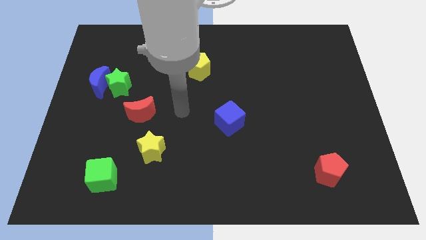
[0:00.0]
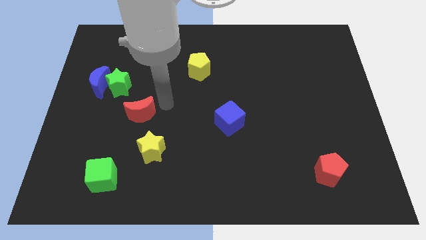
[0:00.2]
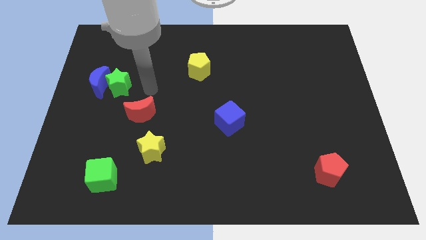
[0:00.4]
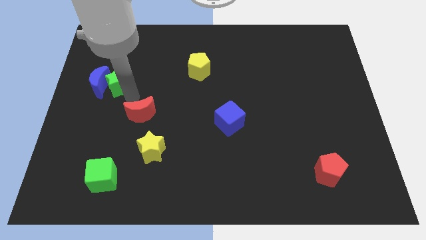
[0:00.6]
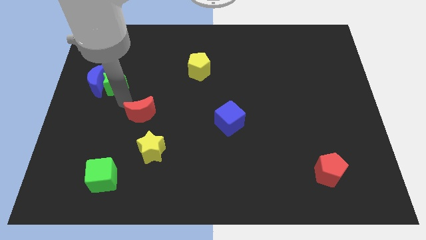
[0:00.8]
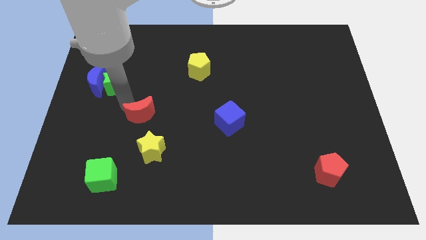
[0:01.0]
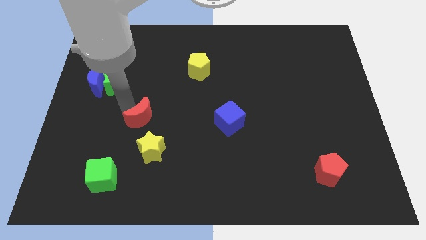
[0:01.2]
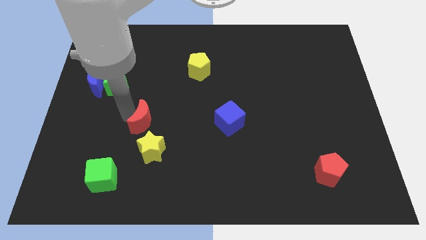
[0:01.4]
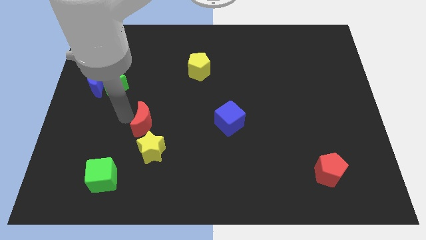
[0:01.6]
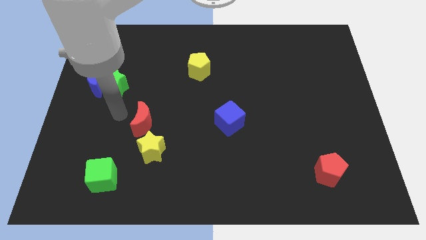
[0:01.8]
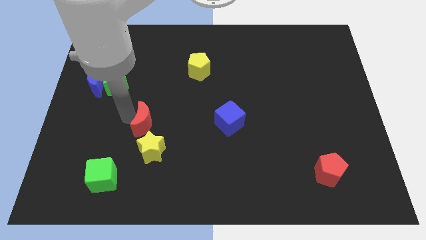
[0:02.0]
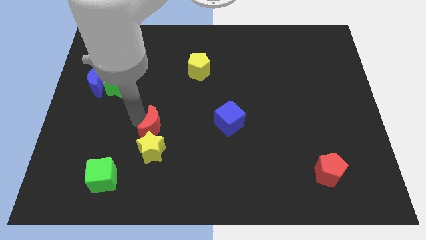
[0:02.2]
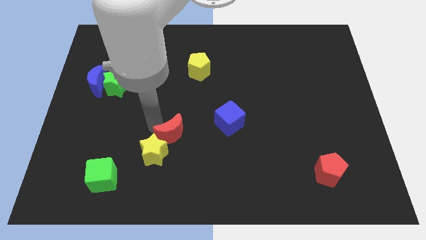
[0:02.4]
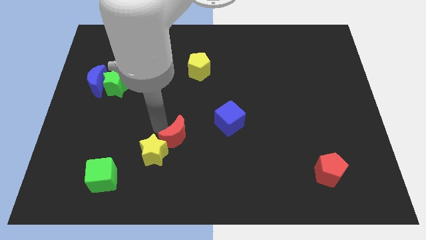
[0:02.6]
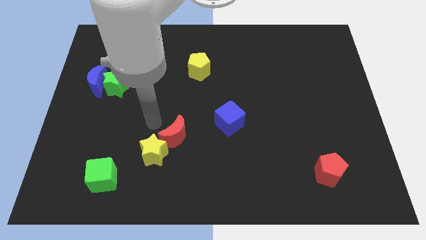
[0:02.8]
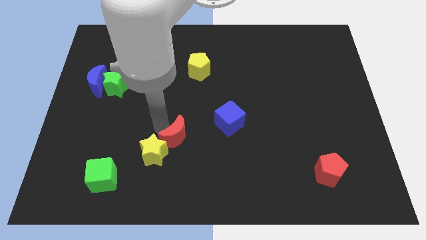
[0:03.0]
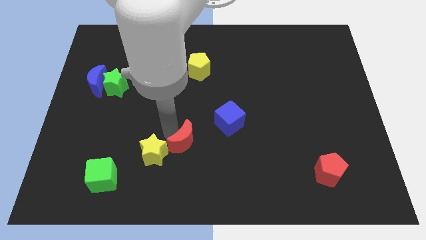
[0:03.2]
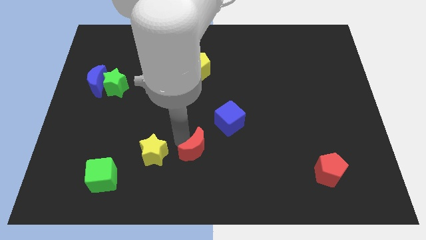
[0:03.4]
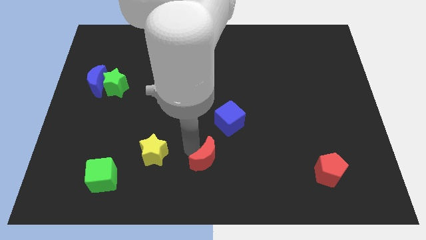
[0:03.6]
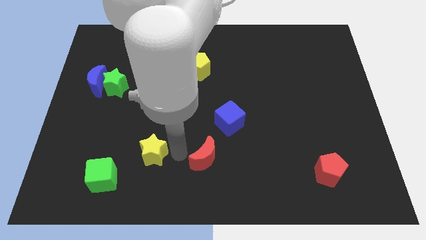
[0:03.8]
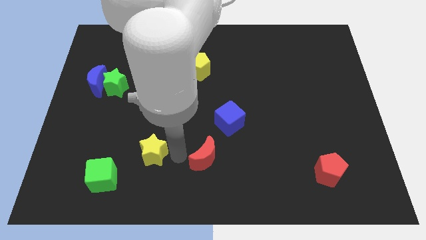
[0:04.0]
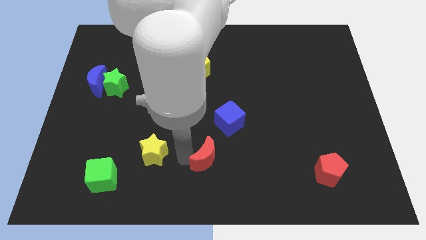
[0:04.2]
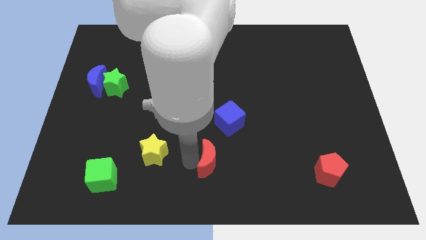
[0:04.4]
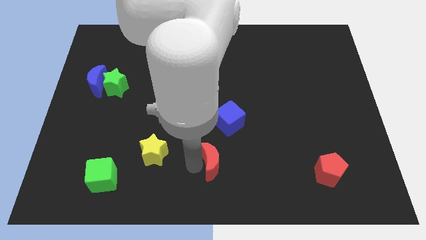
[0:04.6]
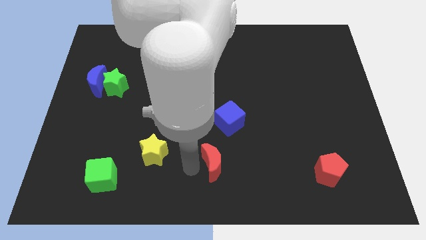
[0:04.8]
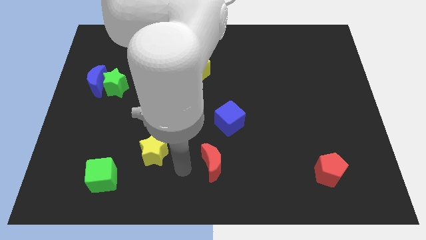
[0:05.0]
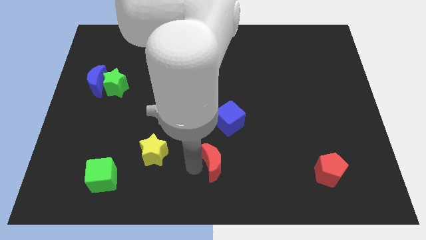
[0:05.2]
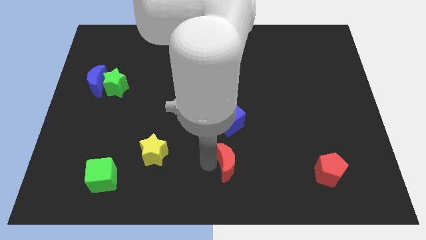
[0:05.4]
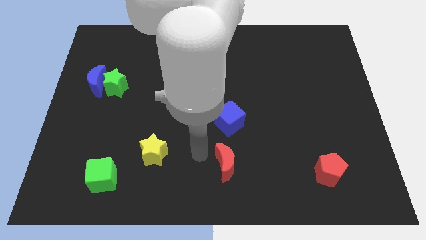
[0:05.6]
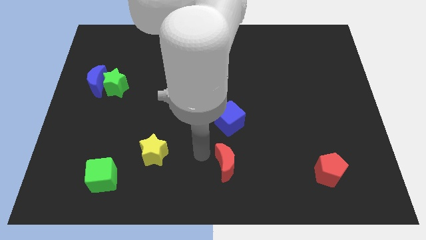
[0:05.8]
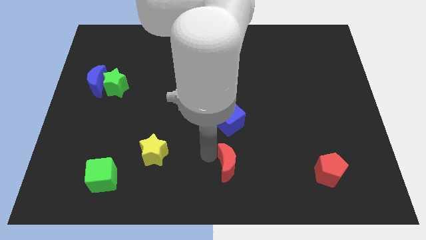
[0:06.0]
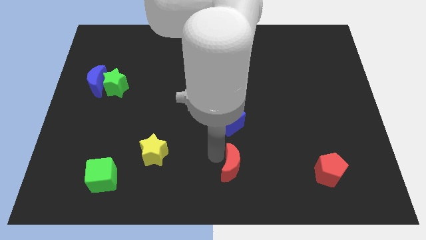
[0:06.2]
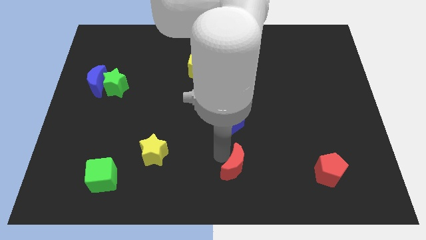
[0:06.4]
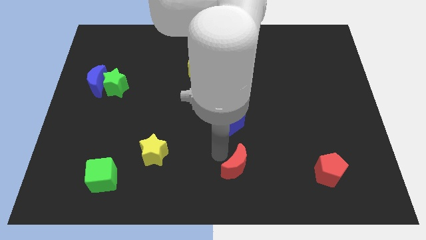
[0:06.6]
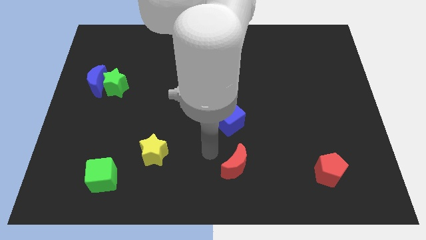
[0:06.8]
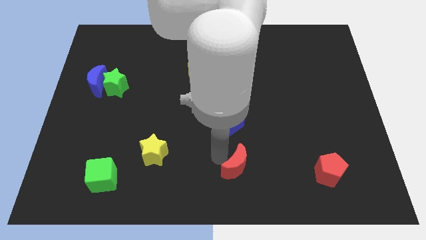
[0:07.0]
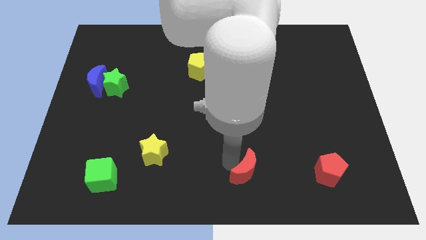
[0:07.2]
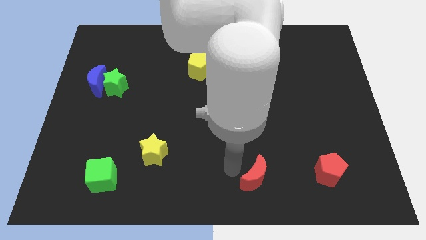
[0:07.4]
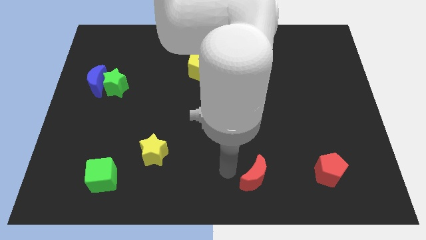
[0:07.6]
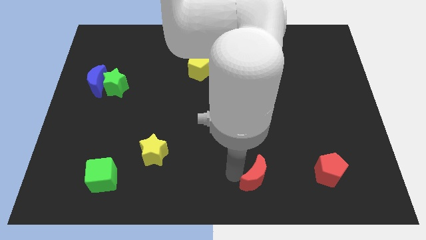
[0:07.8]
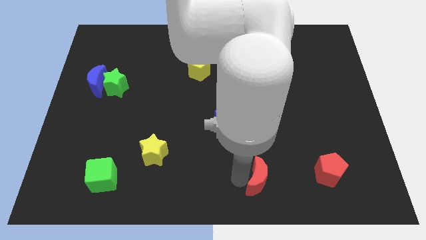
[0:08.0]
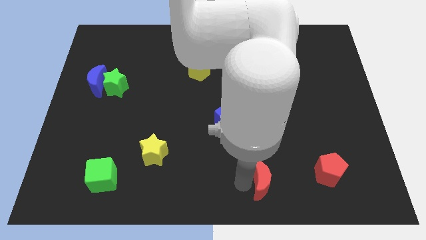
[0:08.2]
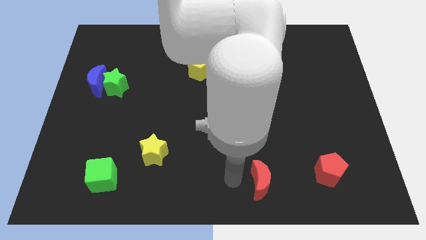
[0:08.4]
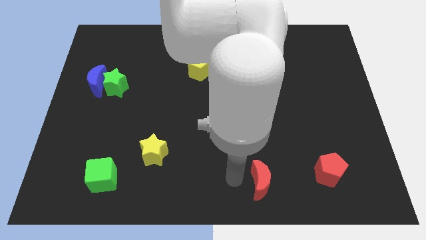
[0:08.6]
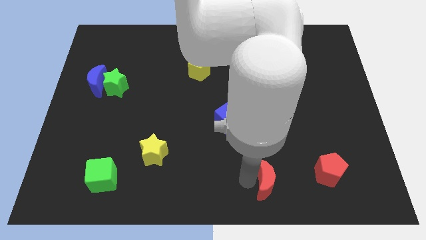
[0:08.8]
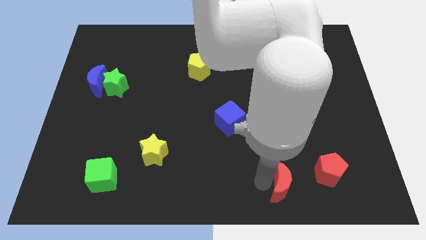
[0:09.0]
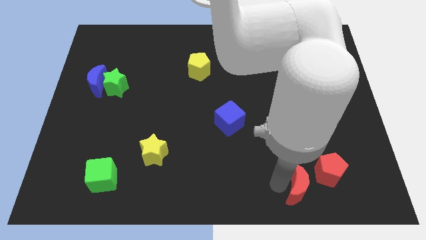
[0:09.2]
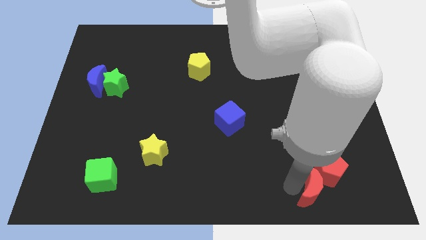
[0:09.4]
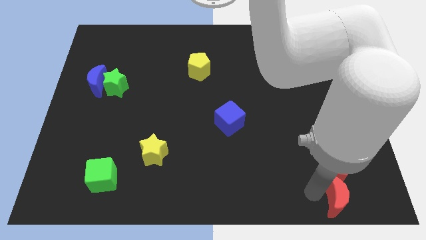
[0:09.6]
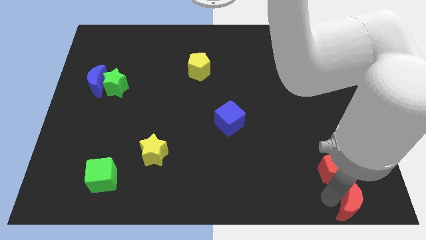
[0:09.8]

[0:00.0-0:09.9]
move the red moon to the bottom right of the board

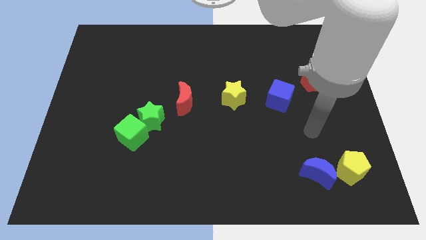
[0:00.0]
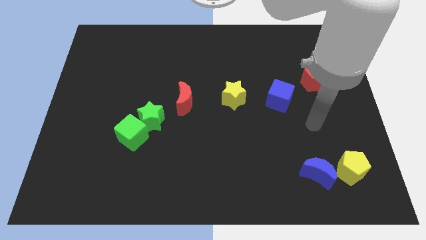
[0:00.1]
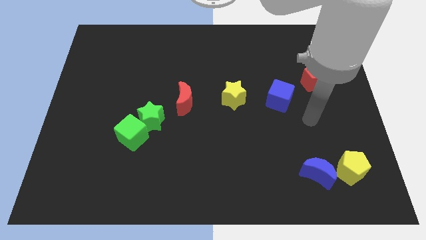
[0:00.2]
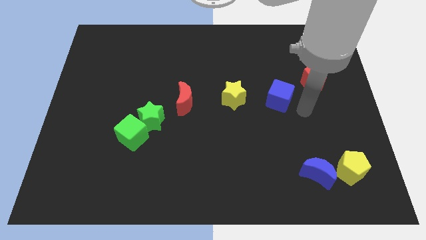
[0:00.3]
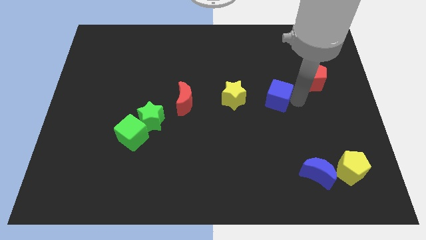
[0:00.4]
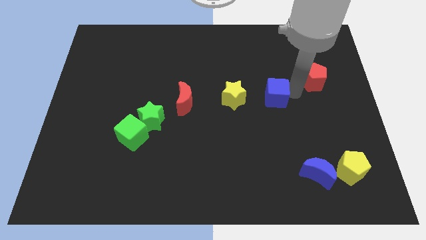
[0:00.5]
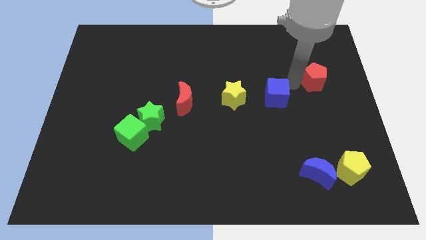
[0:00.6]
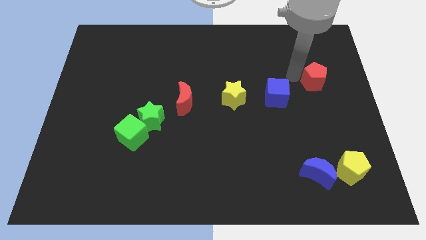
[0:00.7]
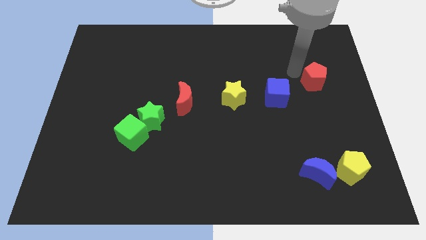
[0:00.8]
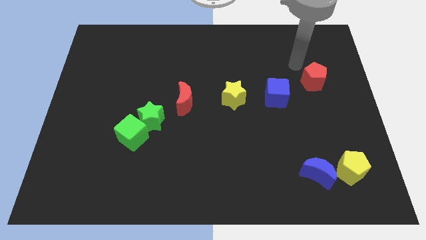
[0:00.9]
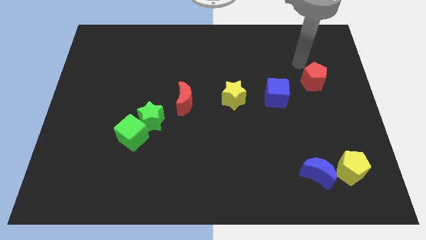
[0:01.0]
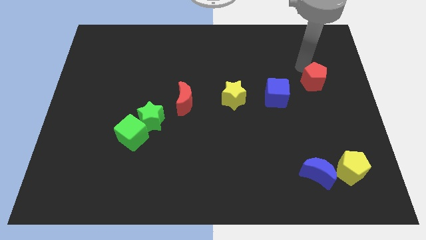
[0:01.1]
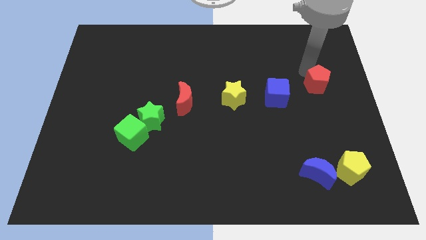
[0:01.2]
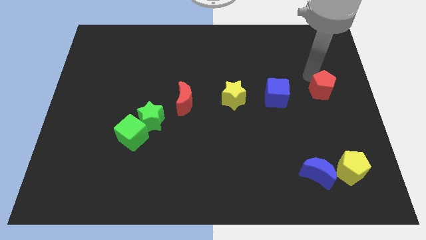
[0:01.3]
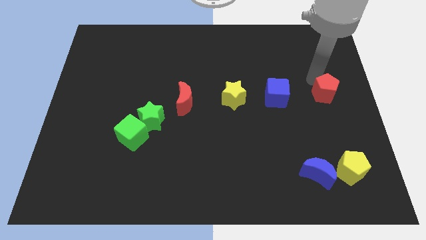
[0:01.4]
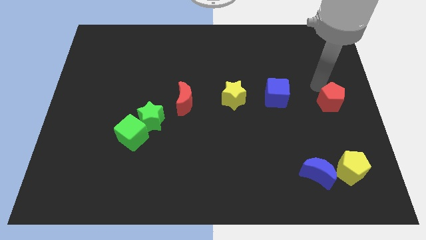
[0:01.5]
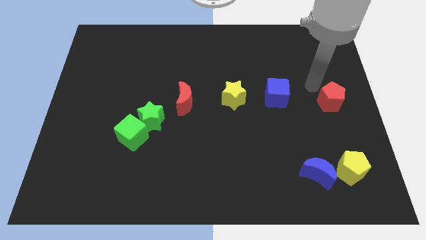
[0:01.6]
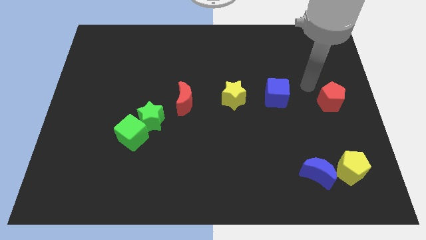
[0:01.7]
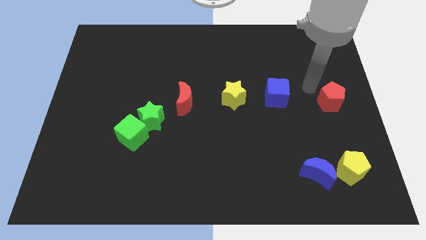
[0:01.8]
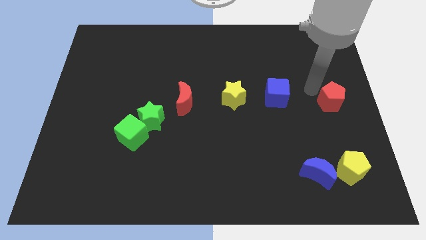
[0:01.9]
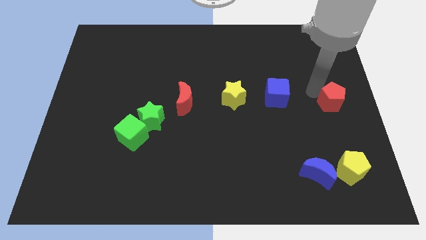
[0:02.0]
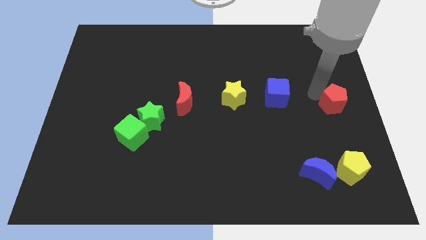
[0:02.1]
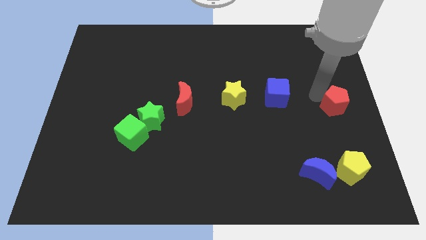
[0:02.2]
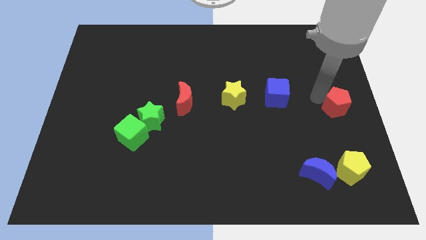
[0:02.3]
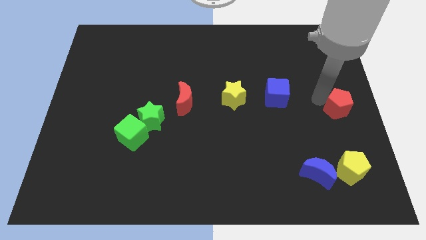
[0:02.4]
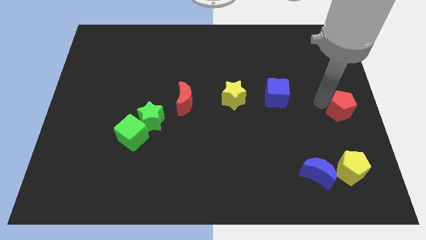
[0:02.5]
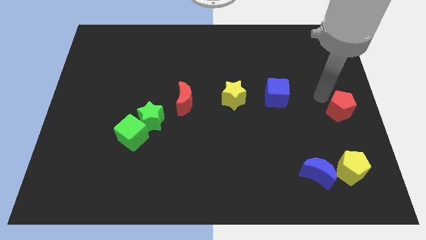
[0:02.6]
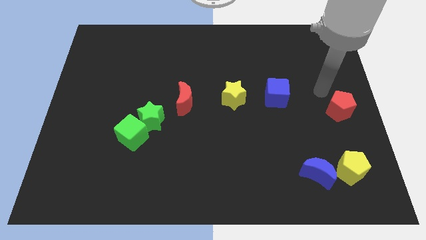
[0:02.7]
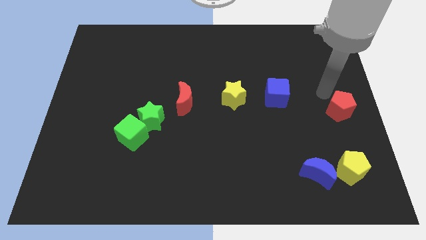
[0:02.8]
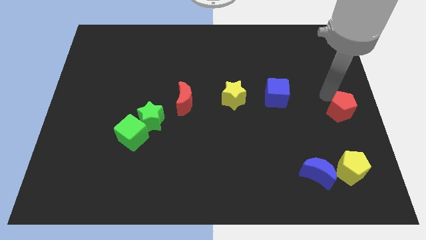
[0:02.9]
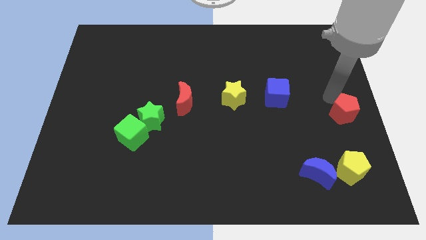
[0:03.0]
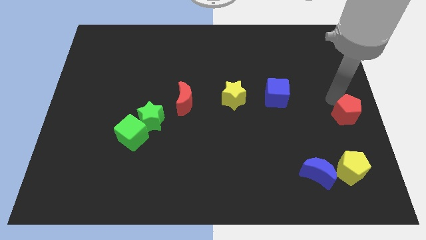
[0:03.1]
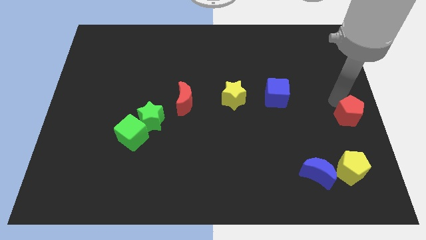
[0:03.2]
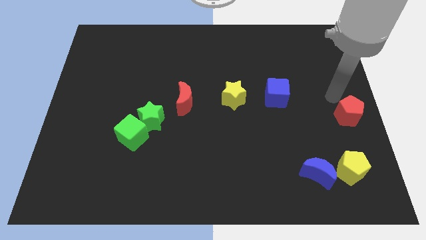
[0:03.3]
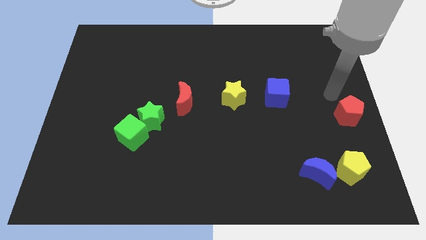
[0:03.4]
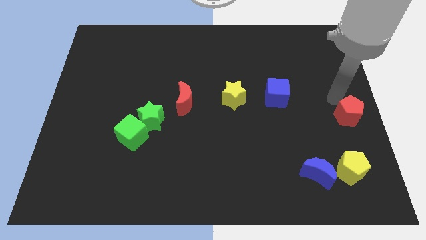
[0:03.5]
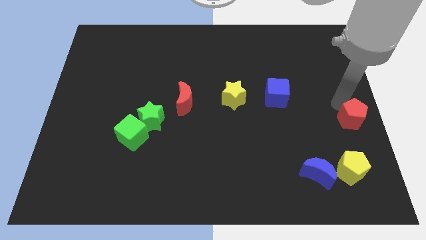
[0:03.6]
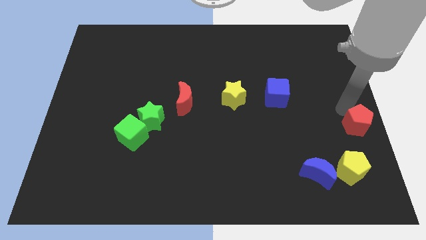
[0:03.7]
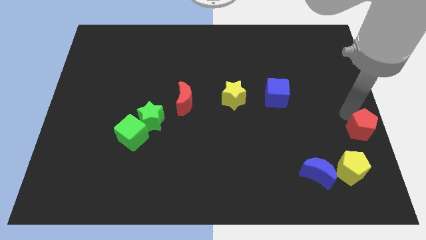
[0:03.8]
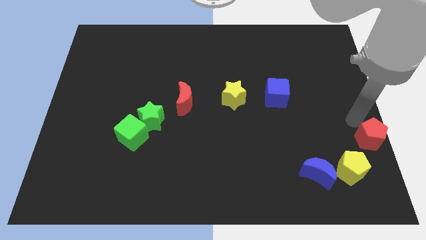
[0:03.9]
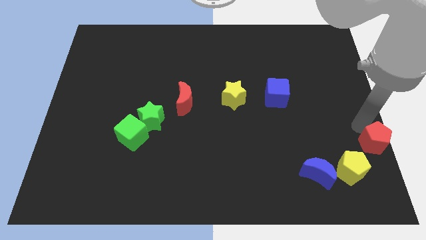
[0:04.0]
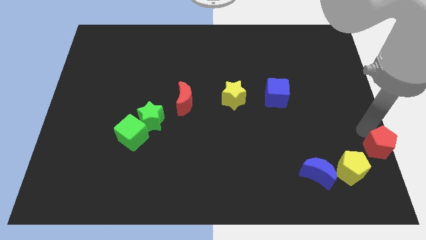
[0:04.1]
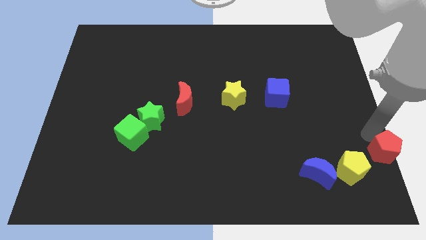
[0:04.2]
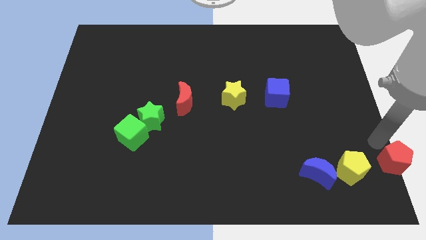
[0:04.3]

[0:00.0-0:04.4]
put the red pentagon to the bottom right of the board
